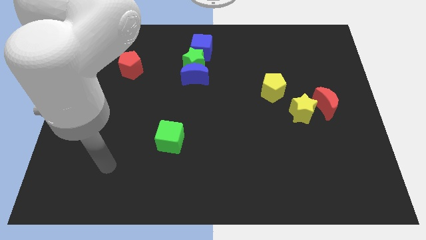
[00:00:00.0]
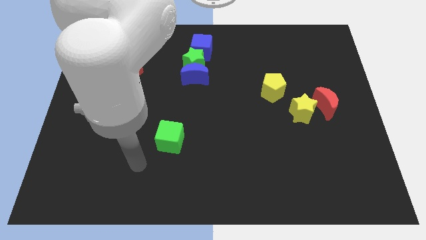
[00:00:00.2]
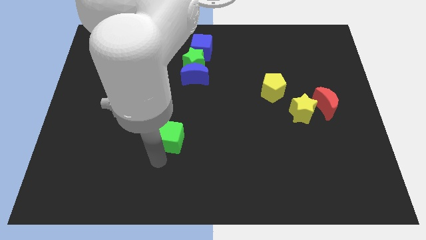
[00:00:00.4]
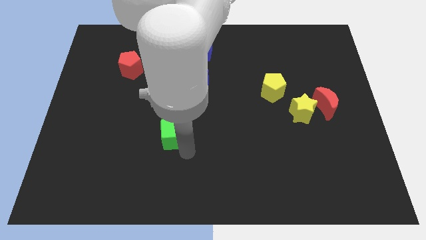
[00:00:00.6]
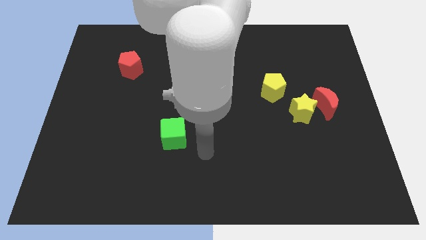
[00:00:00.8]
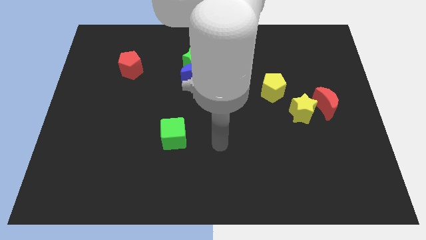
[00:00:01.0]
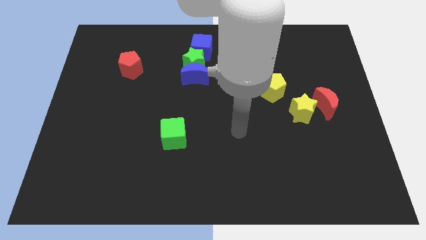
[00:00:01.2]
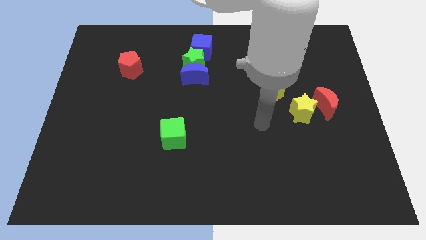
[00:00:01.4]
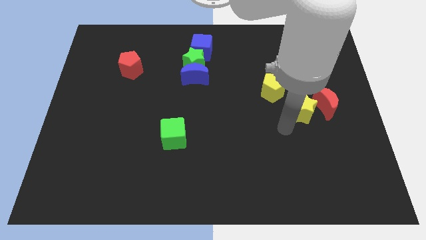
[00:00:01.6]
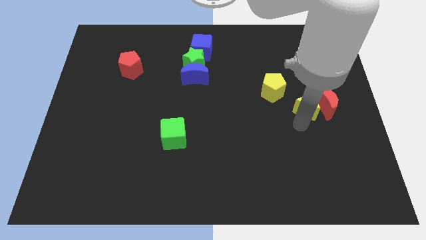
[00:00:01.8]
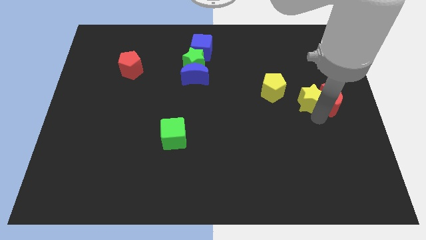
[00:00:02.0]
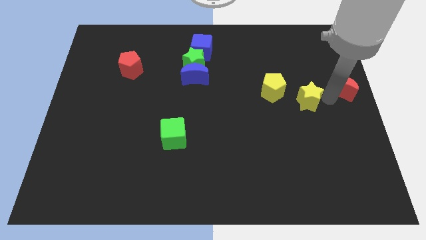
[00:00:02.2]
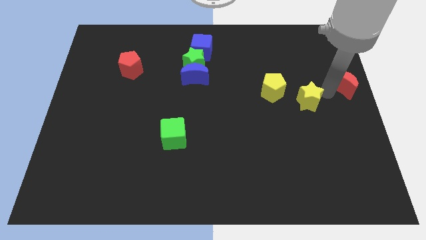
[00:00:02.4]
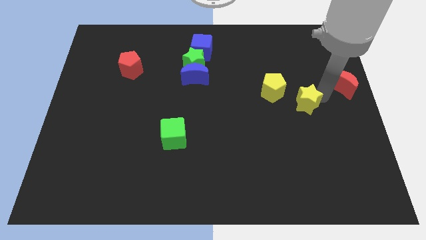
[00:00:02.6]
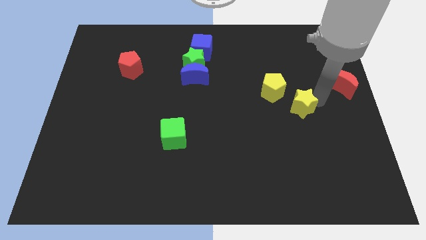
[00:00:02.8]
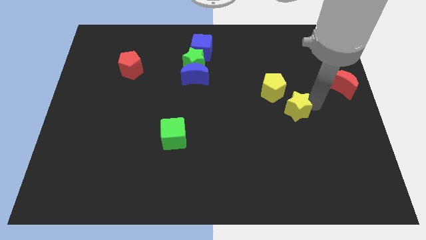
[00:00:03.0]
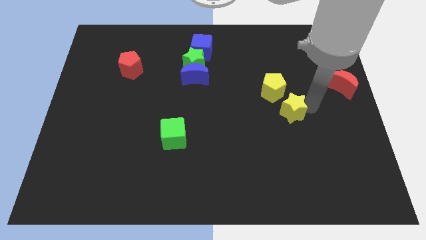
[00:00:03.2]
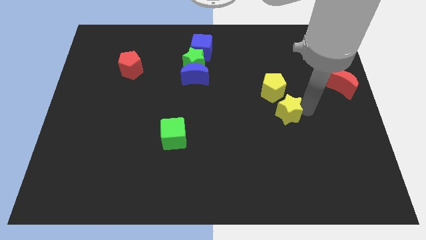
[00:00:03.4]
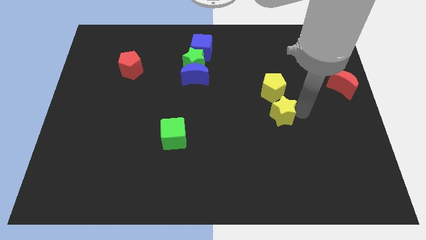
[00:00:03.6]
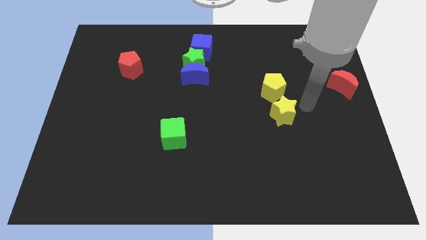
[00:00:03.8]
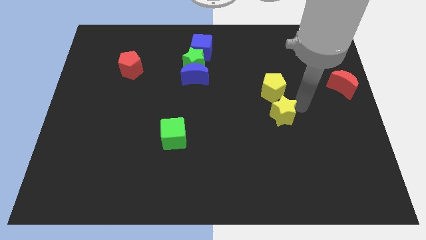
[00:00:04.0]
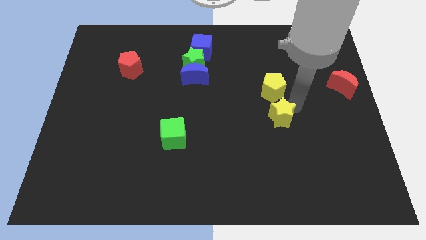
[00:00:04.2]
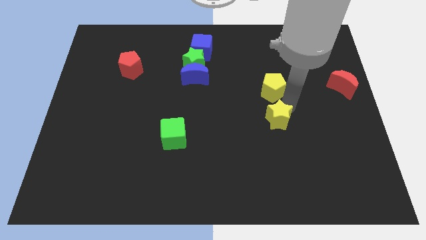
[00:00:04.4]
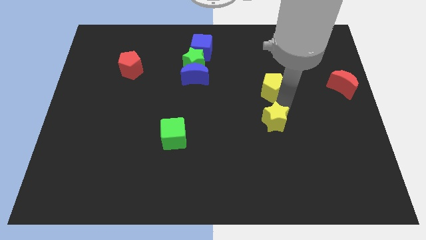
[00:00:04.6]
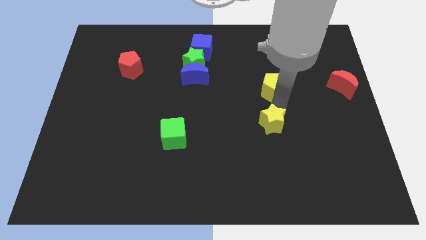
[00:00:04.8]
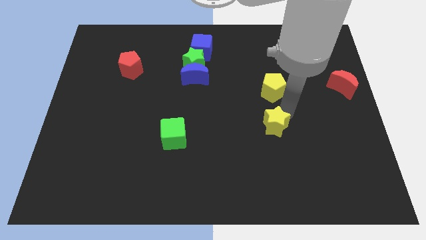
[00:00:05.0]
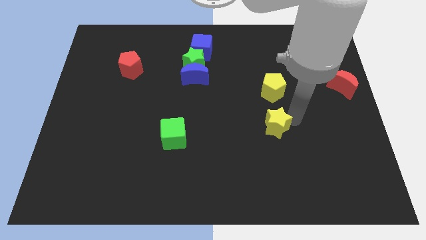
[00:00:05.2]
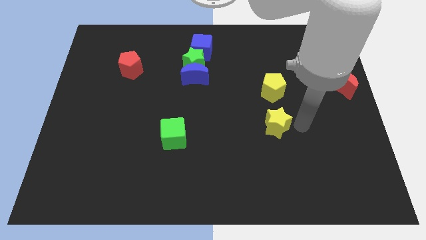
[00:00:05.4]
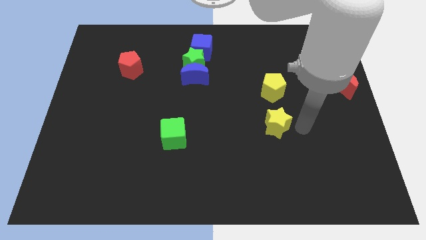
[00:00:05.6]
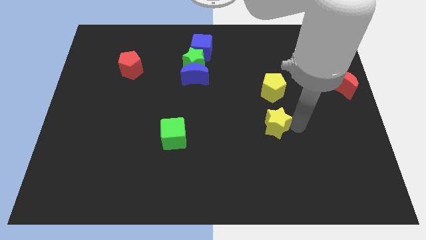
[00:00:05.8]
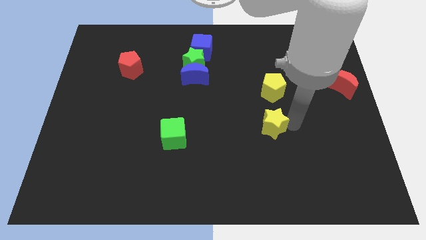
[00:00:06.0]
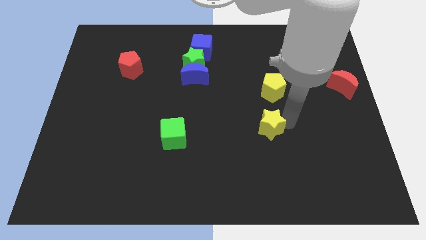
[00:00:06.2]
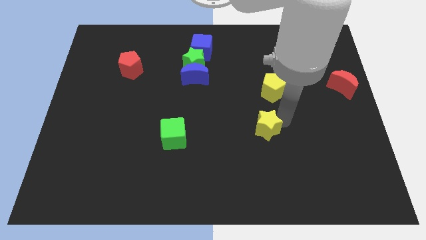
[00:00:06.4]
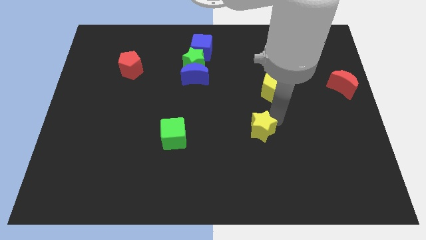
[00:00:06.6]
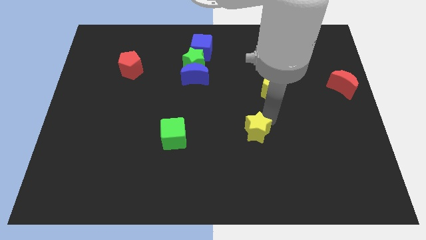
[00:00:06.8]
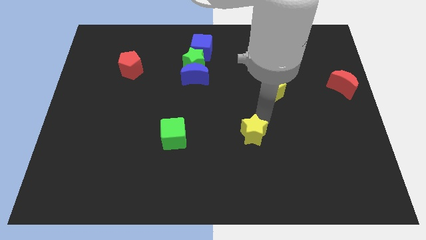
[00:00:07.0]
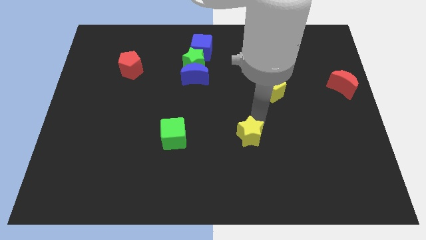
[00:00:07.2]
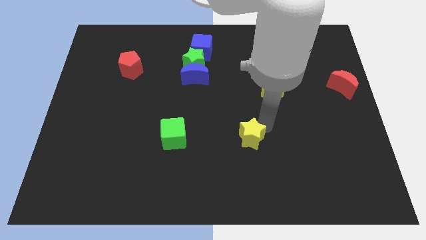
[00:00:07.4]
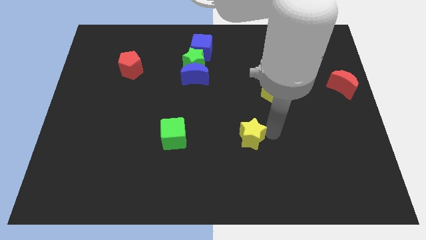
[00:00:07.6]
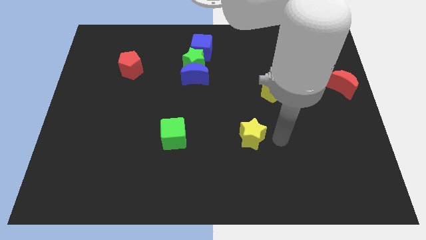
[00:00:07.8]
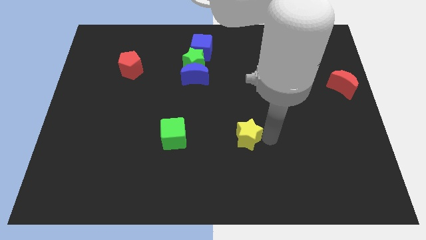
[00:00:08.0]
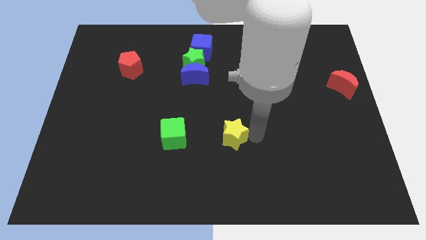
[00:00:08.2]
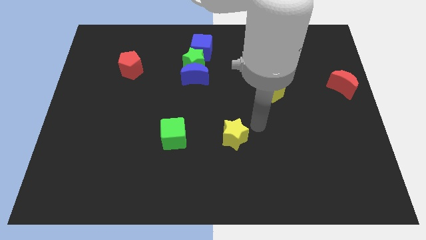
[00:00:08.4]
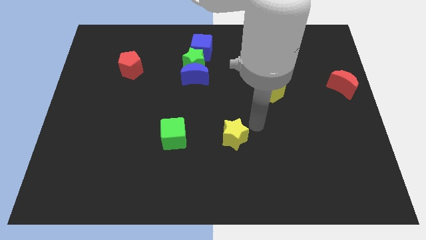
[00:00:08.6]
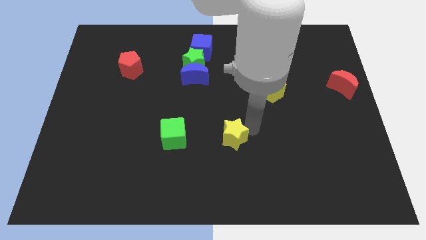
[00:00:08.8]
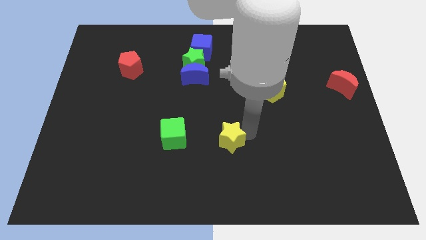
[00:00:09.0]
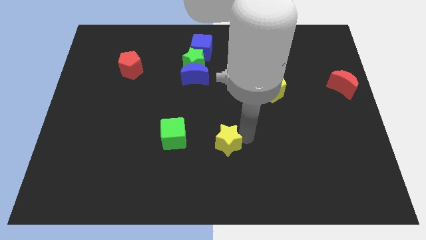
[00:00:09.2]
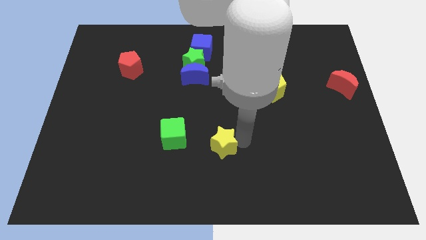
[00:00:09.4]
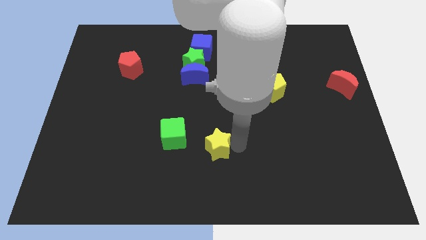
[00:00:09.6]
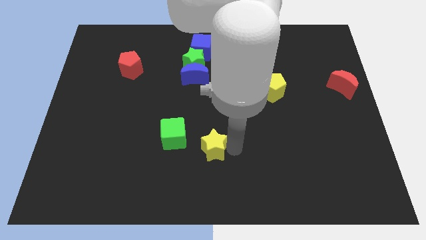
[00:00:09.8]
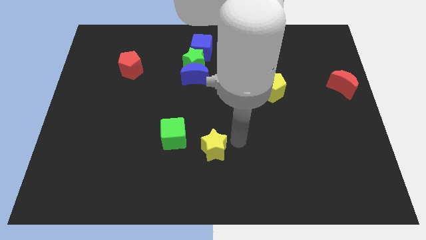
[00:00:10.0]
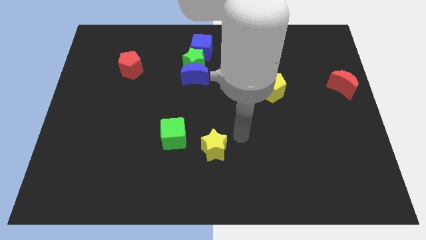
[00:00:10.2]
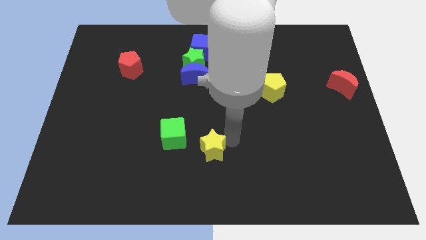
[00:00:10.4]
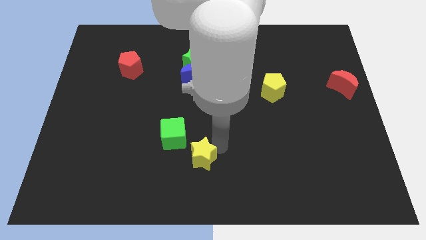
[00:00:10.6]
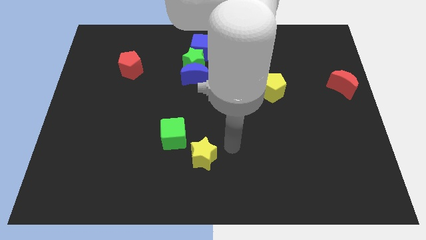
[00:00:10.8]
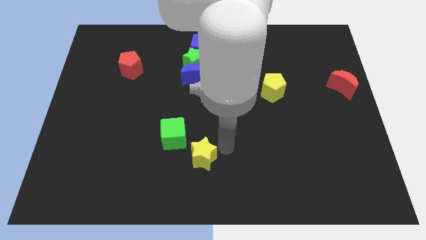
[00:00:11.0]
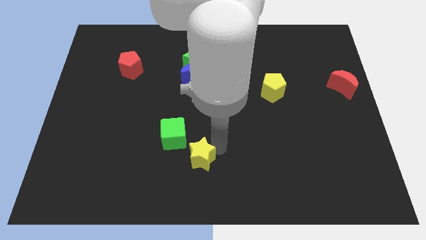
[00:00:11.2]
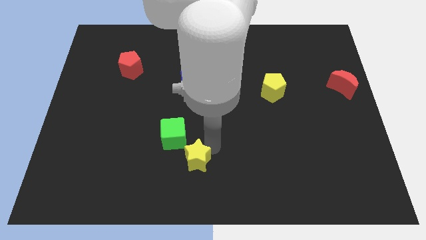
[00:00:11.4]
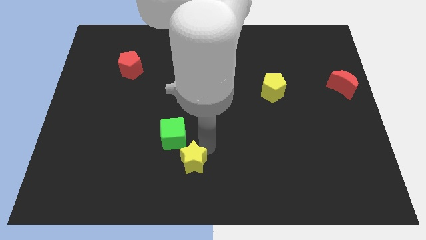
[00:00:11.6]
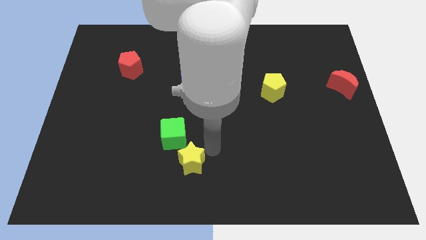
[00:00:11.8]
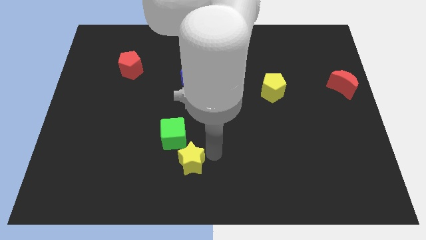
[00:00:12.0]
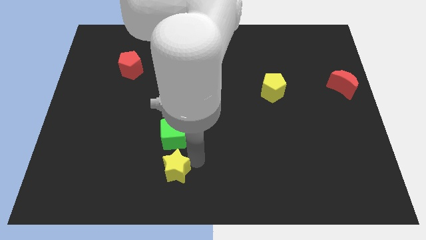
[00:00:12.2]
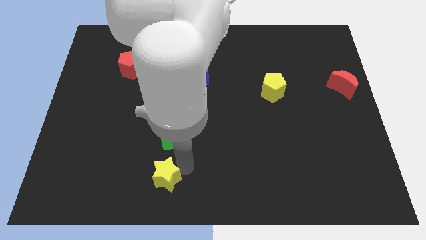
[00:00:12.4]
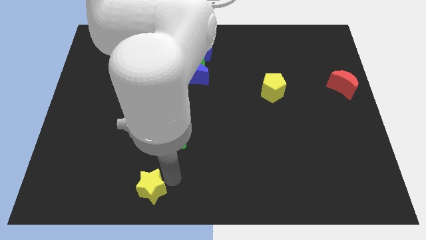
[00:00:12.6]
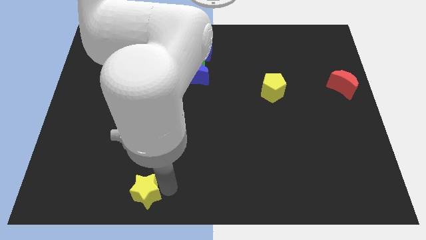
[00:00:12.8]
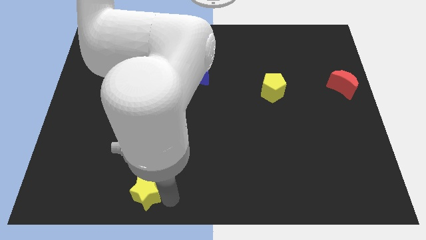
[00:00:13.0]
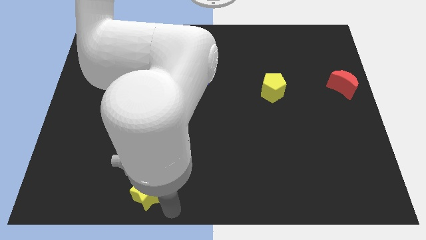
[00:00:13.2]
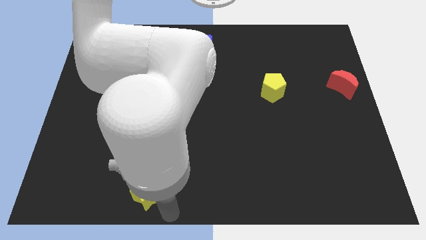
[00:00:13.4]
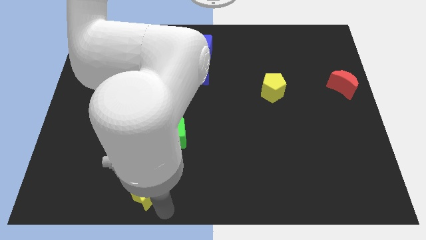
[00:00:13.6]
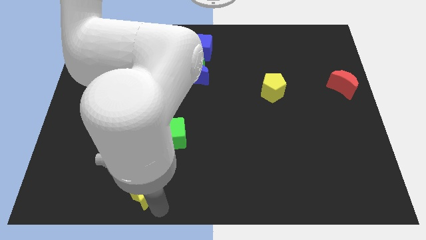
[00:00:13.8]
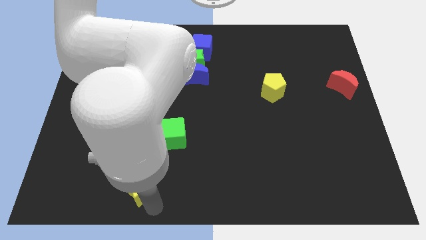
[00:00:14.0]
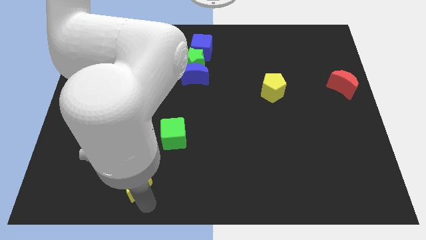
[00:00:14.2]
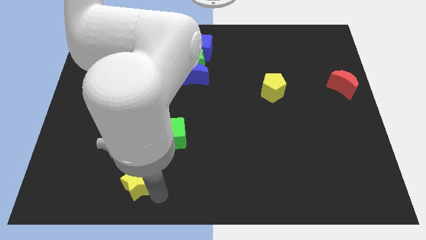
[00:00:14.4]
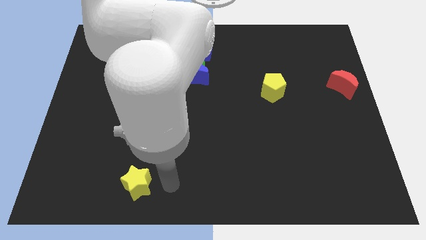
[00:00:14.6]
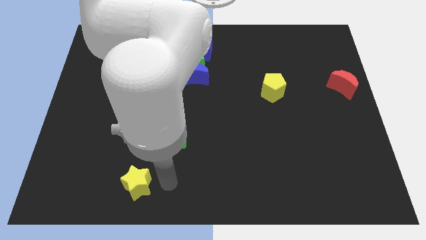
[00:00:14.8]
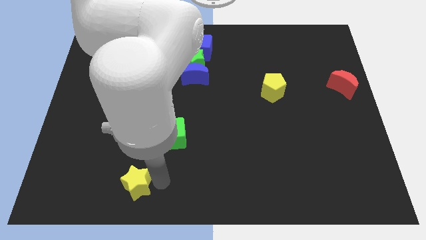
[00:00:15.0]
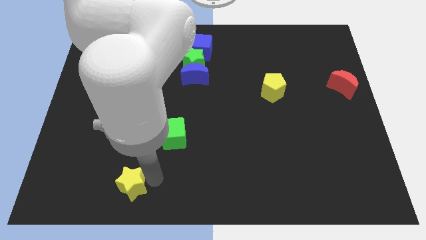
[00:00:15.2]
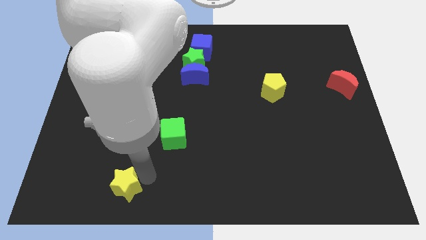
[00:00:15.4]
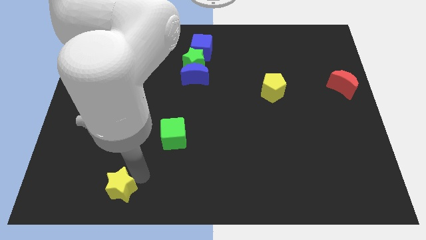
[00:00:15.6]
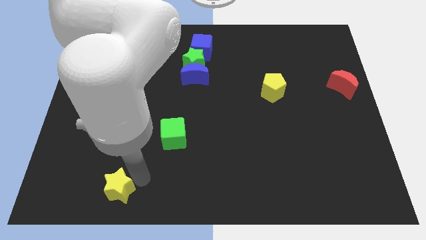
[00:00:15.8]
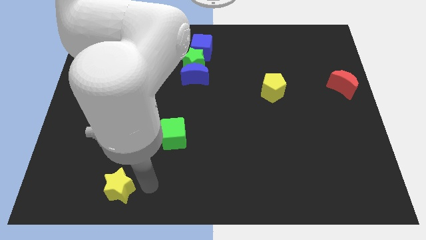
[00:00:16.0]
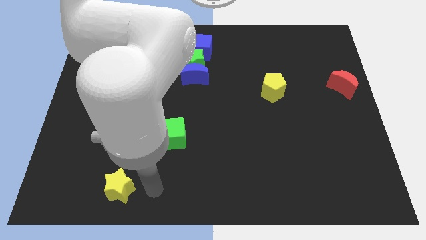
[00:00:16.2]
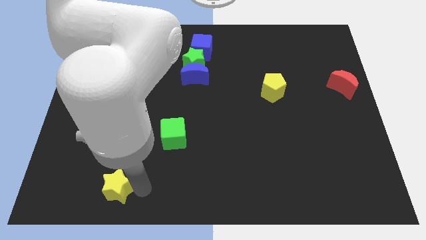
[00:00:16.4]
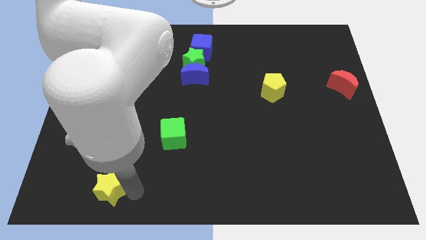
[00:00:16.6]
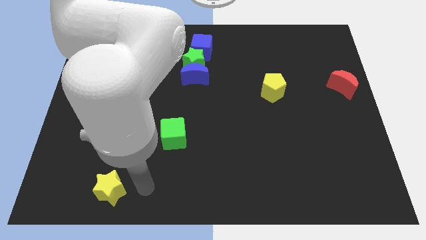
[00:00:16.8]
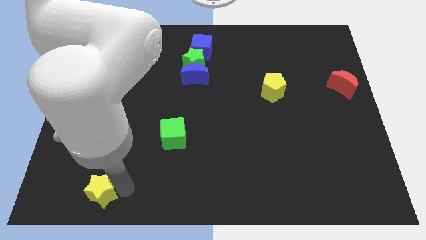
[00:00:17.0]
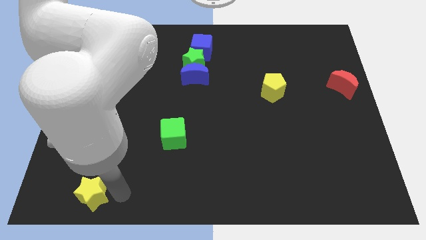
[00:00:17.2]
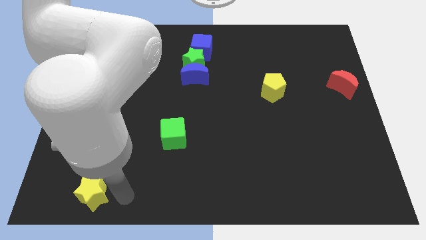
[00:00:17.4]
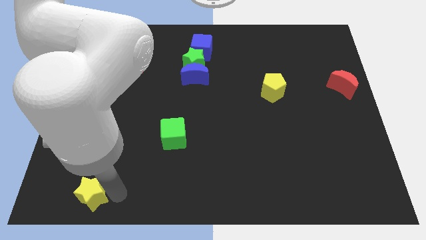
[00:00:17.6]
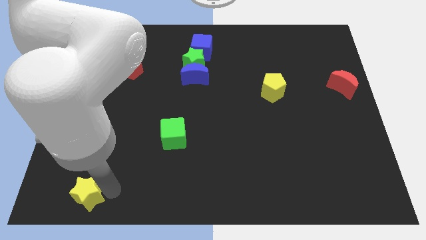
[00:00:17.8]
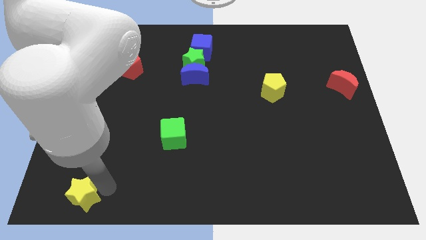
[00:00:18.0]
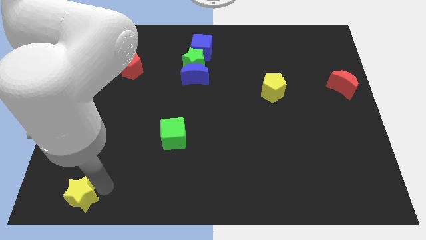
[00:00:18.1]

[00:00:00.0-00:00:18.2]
put the yellow star to the bottom left of the board
